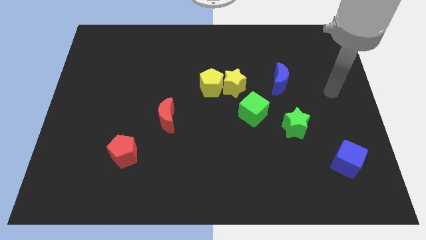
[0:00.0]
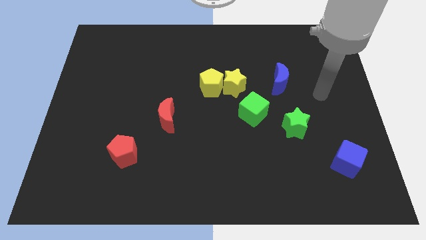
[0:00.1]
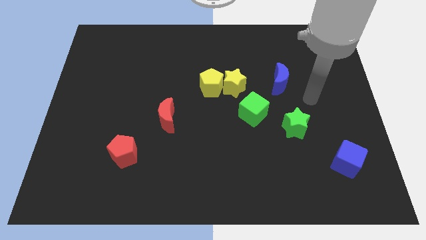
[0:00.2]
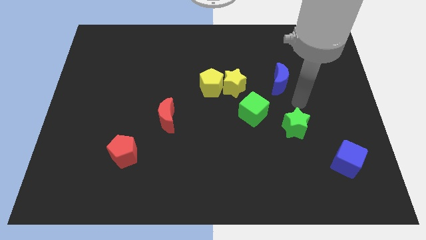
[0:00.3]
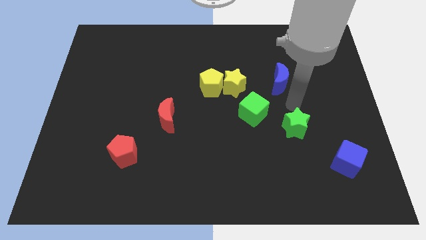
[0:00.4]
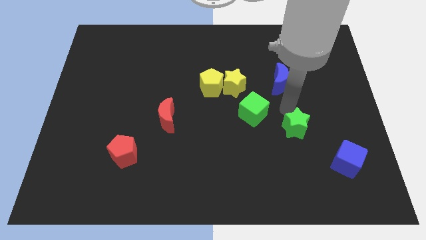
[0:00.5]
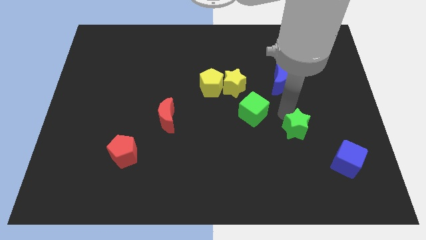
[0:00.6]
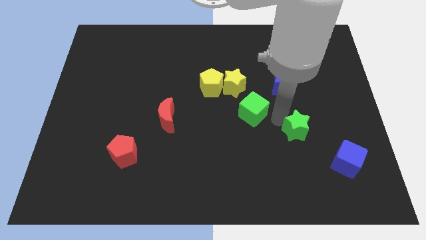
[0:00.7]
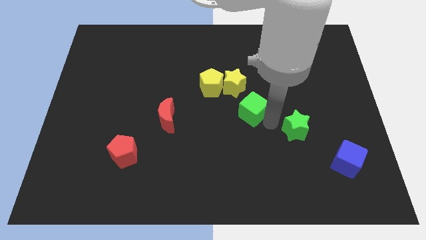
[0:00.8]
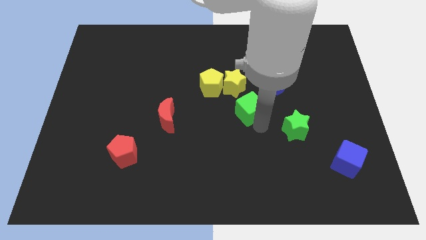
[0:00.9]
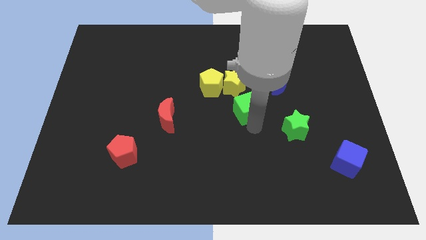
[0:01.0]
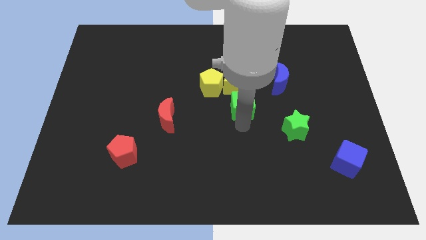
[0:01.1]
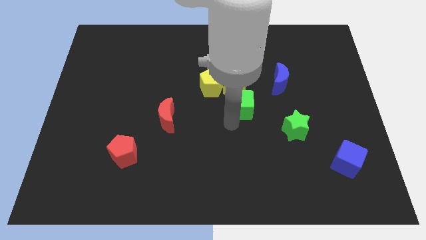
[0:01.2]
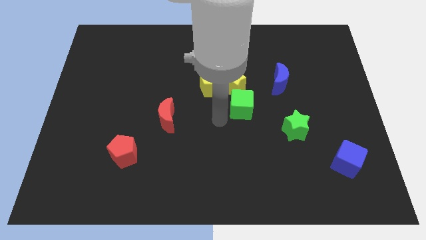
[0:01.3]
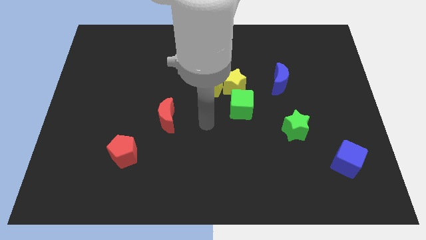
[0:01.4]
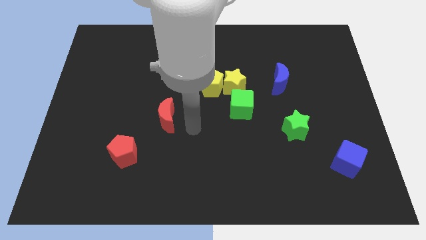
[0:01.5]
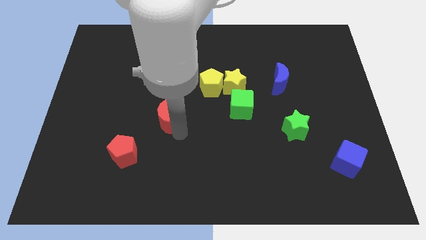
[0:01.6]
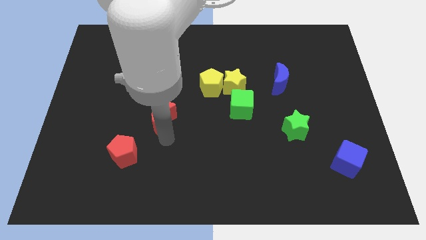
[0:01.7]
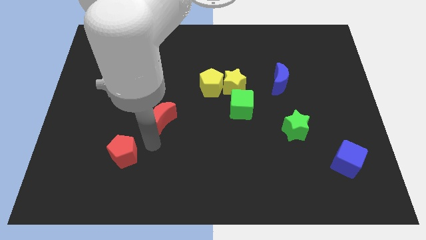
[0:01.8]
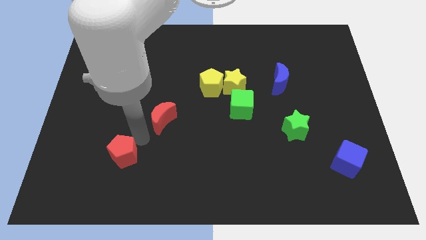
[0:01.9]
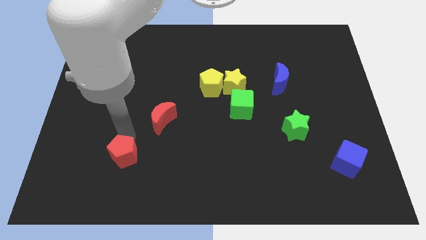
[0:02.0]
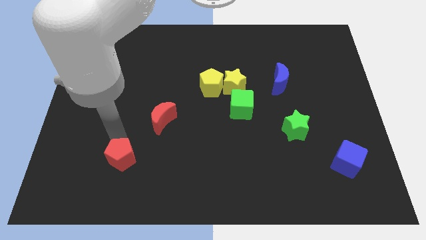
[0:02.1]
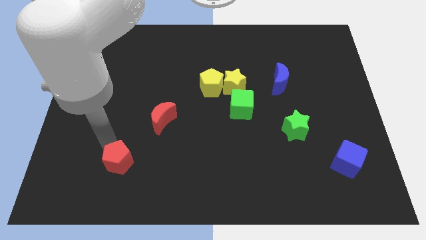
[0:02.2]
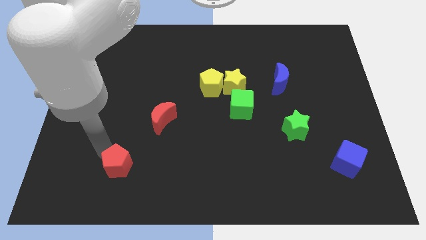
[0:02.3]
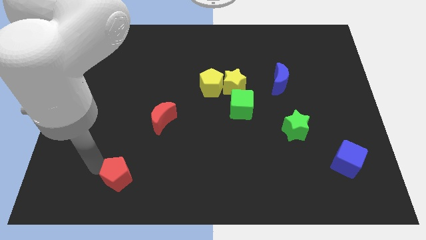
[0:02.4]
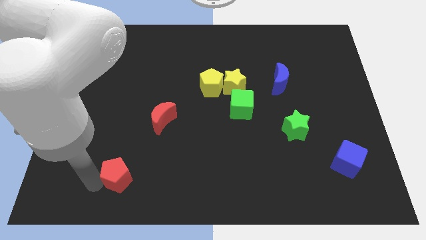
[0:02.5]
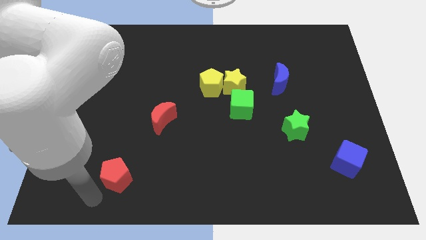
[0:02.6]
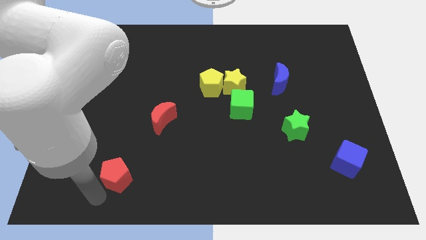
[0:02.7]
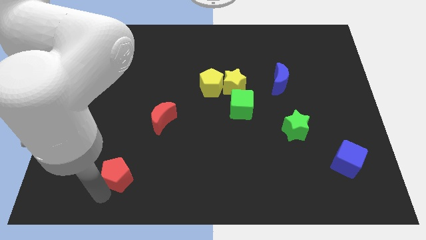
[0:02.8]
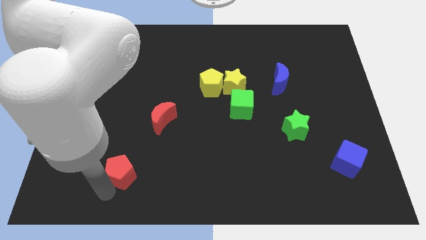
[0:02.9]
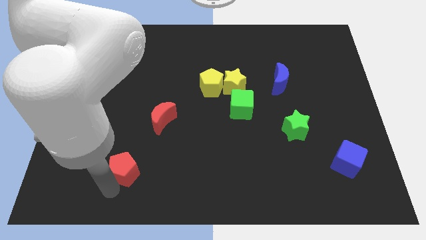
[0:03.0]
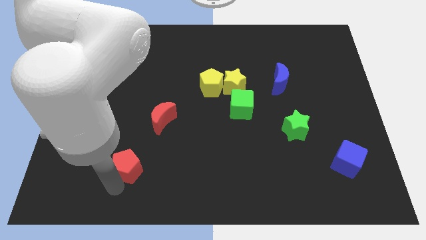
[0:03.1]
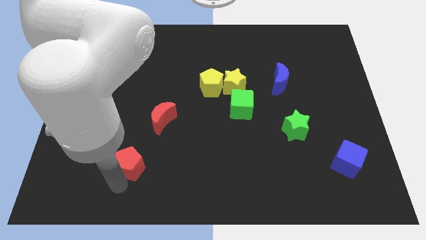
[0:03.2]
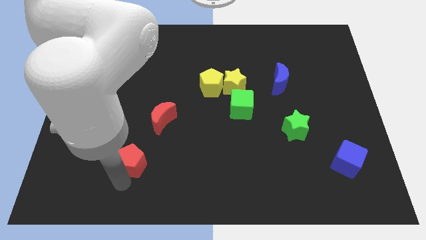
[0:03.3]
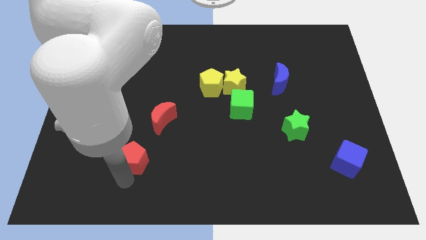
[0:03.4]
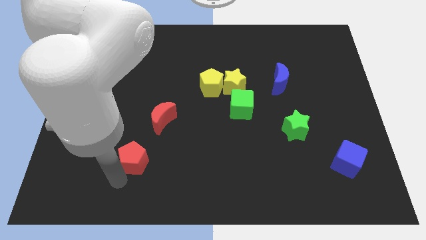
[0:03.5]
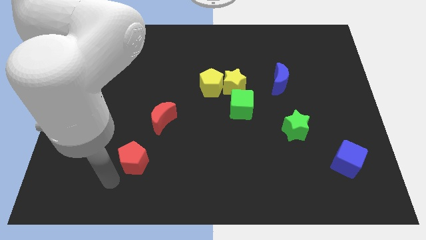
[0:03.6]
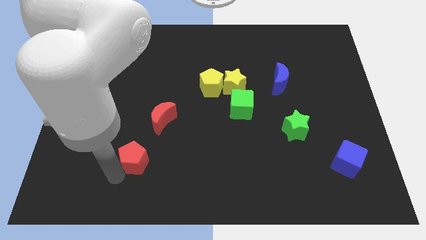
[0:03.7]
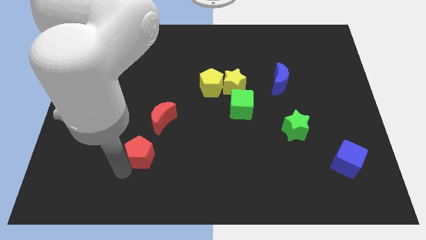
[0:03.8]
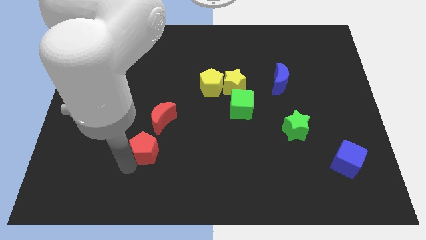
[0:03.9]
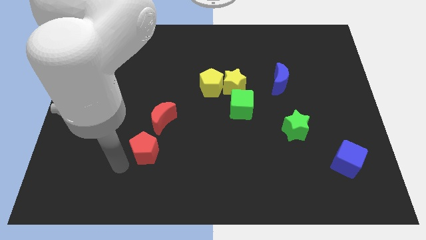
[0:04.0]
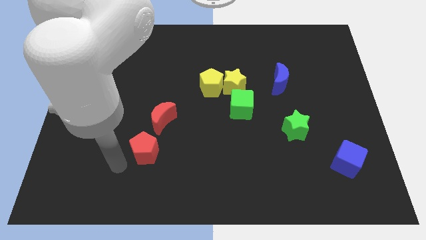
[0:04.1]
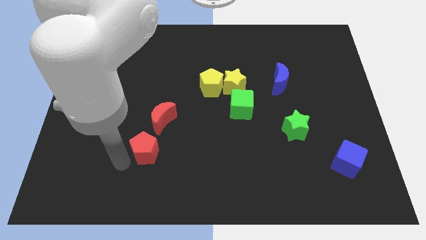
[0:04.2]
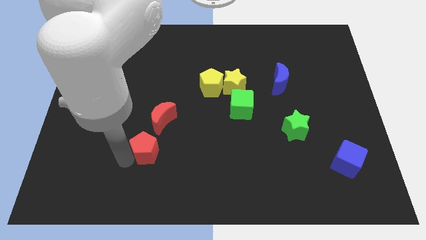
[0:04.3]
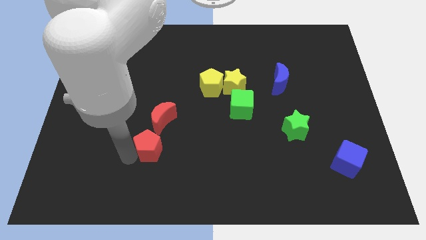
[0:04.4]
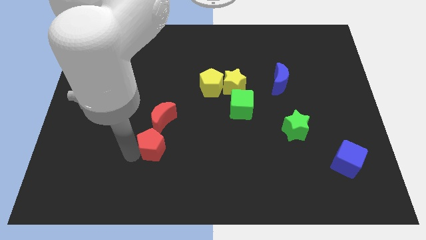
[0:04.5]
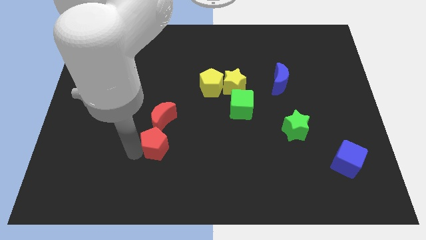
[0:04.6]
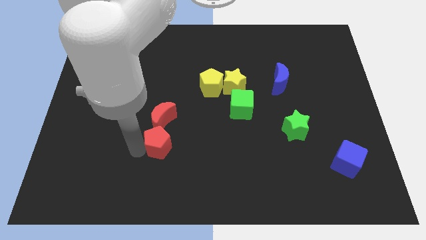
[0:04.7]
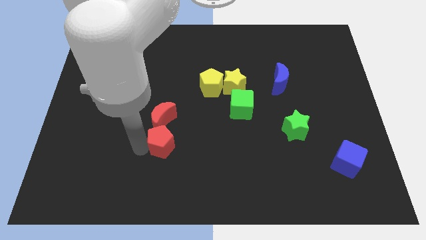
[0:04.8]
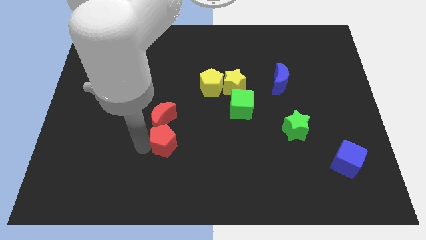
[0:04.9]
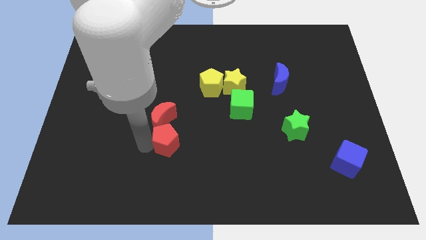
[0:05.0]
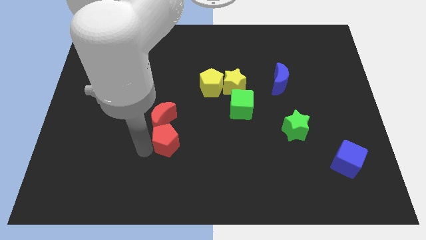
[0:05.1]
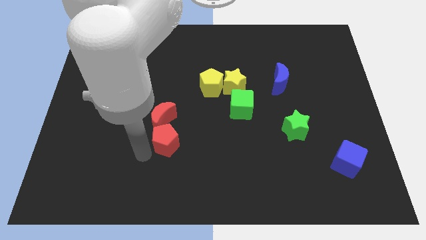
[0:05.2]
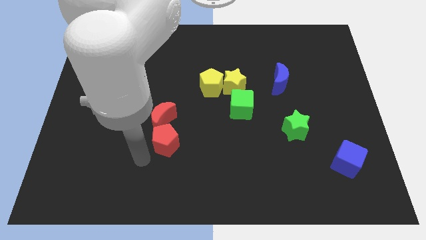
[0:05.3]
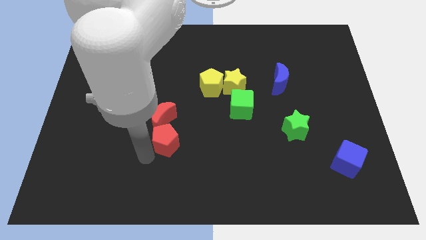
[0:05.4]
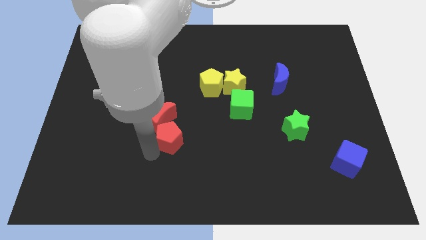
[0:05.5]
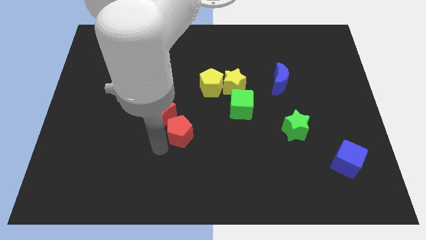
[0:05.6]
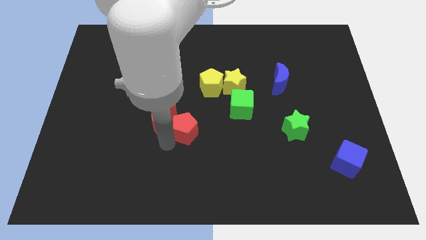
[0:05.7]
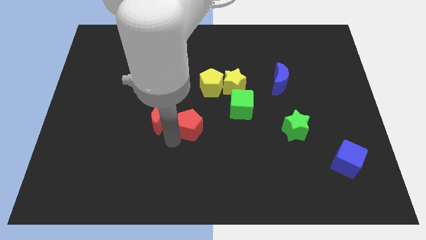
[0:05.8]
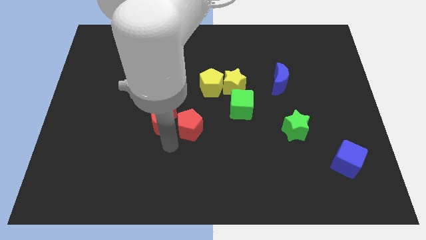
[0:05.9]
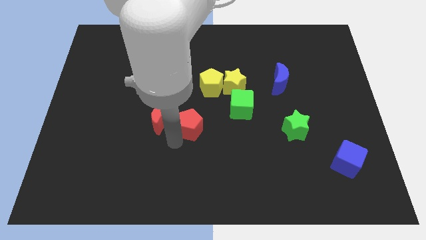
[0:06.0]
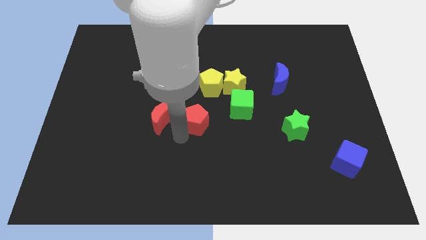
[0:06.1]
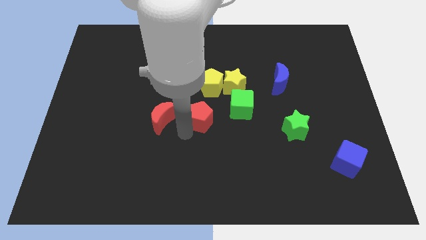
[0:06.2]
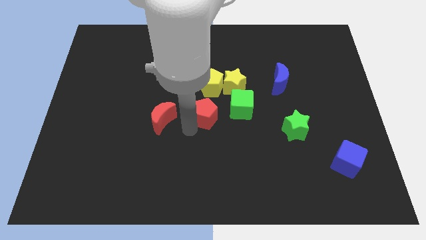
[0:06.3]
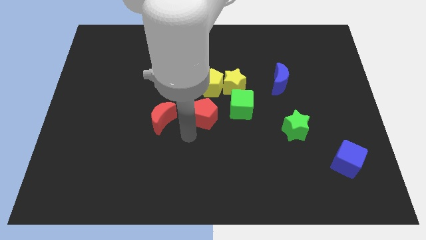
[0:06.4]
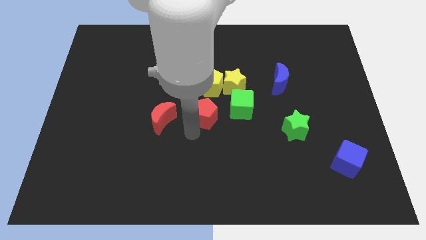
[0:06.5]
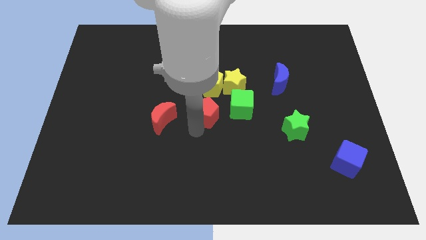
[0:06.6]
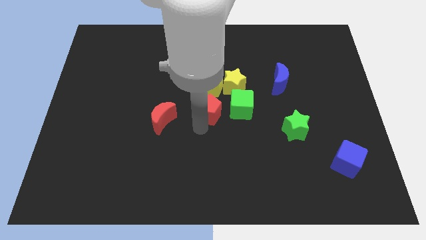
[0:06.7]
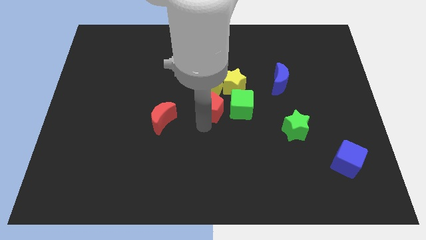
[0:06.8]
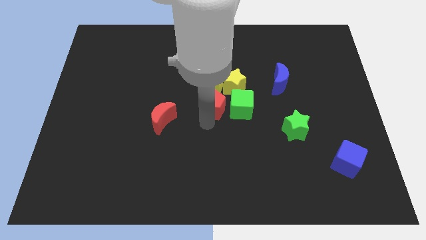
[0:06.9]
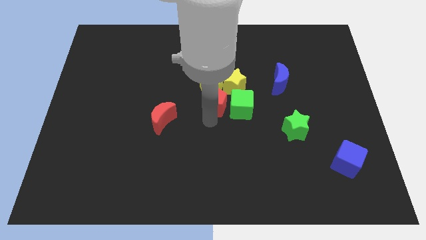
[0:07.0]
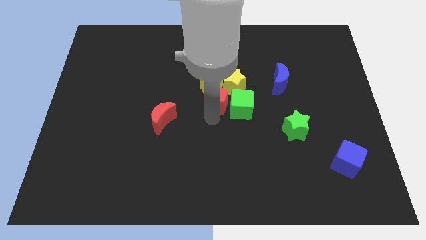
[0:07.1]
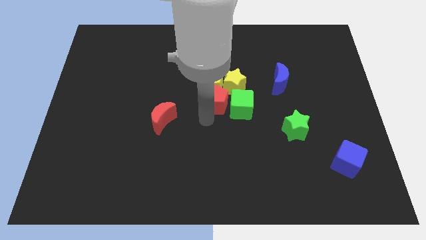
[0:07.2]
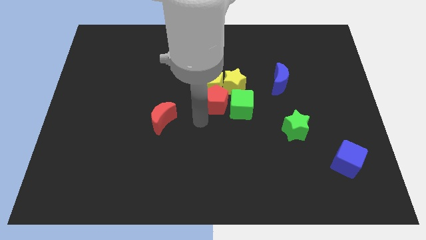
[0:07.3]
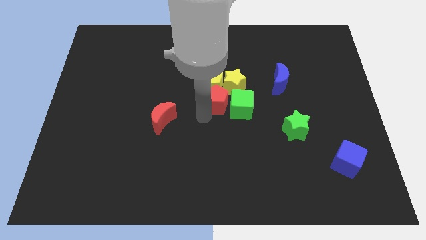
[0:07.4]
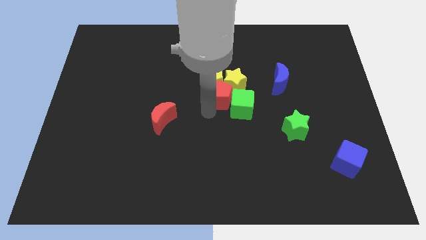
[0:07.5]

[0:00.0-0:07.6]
put the red pentagon towards the yellow star
